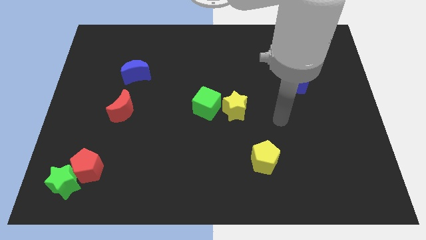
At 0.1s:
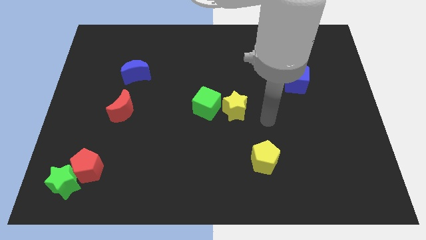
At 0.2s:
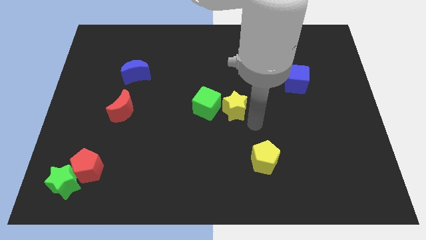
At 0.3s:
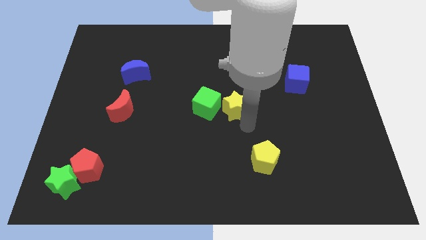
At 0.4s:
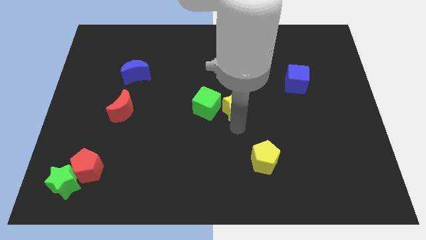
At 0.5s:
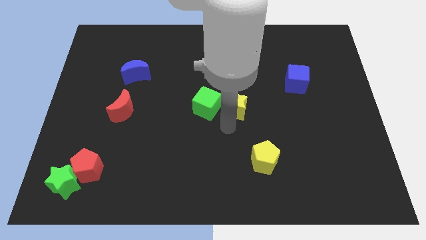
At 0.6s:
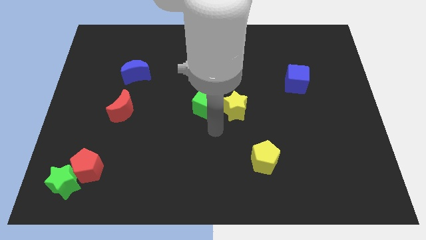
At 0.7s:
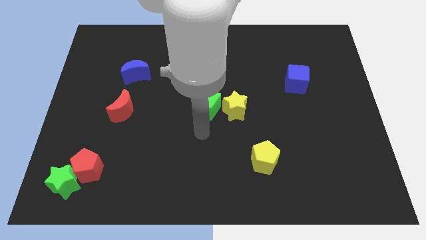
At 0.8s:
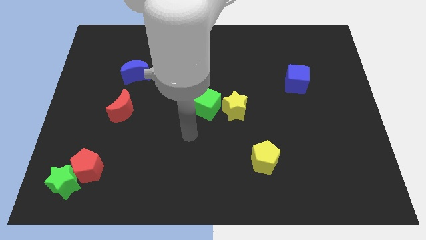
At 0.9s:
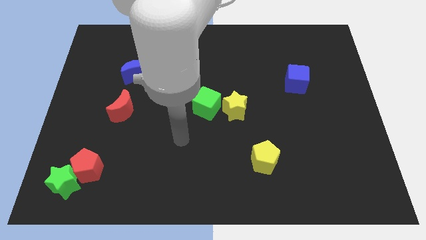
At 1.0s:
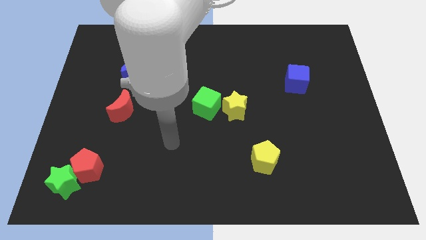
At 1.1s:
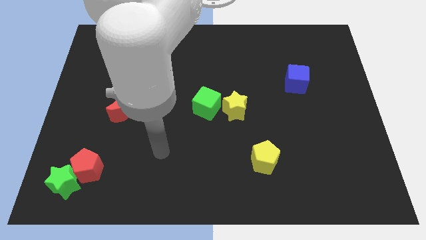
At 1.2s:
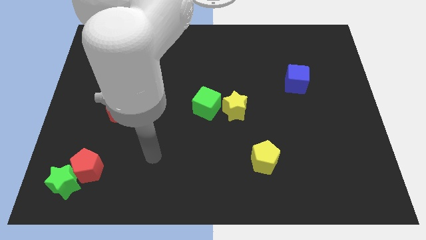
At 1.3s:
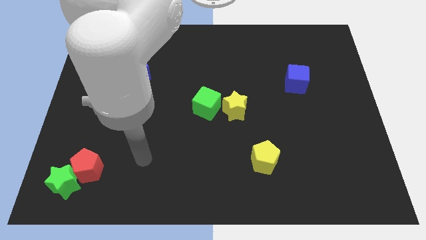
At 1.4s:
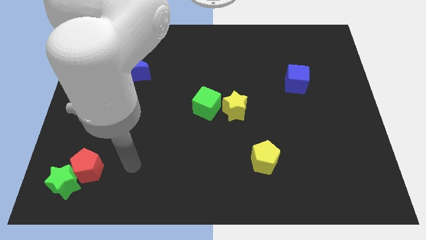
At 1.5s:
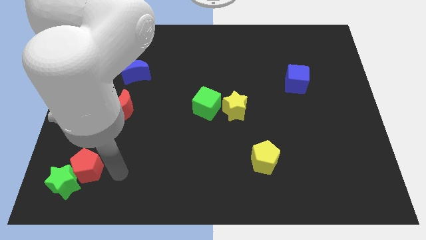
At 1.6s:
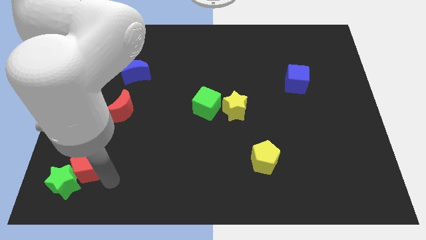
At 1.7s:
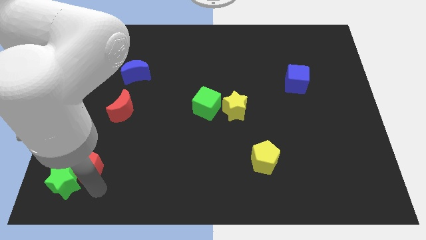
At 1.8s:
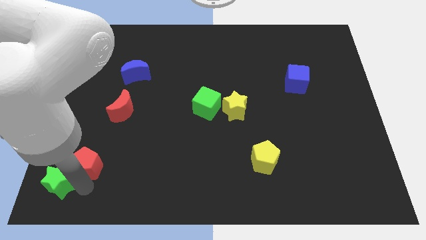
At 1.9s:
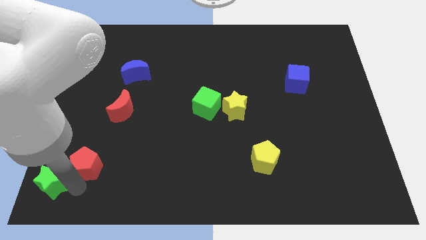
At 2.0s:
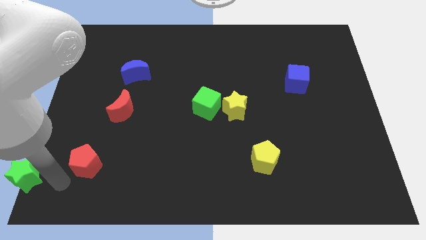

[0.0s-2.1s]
separate the red pentagon from the green star

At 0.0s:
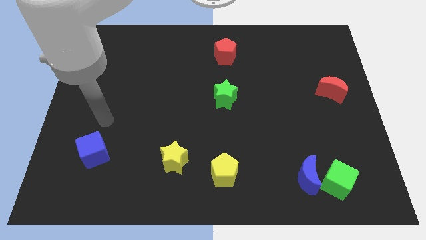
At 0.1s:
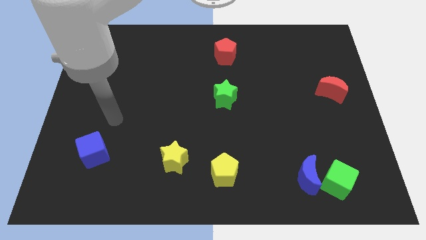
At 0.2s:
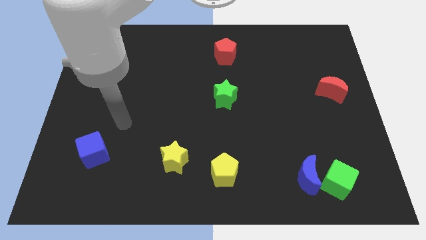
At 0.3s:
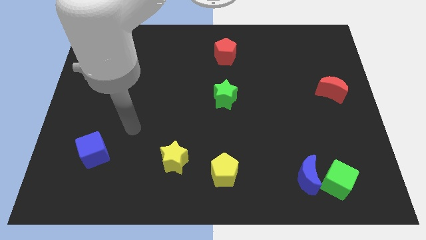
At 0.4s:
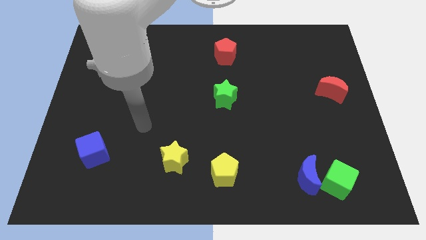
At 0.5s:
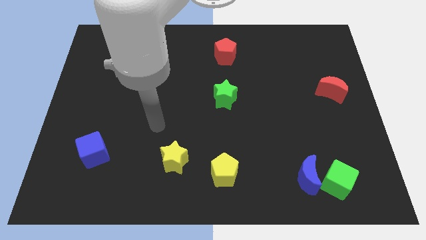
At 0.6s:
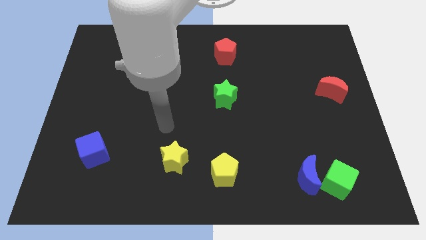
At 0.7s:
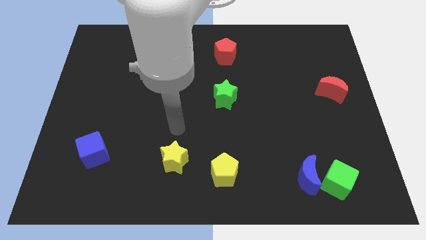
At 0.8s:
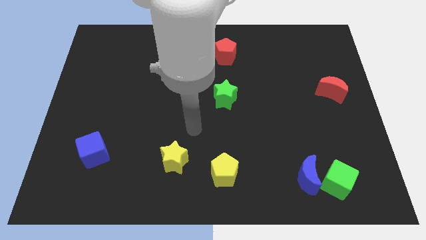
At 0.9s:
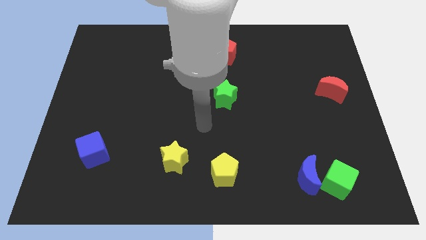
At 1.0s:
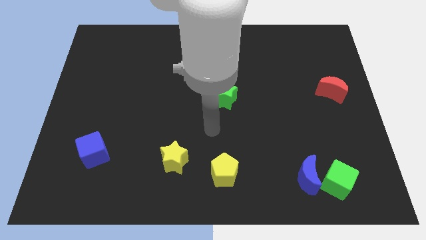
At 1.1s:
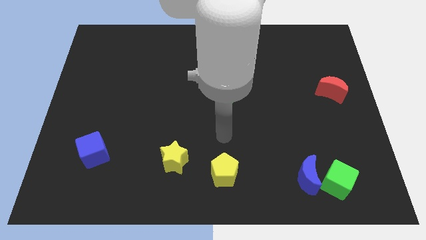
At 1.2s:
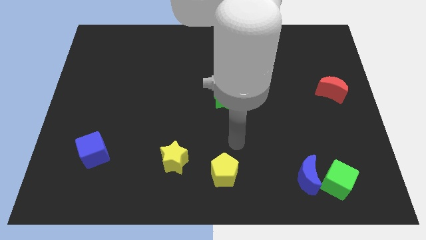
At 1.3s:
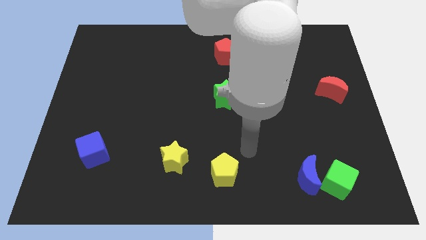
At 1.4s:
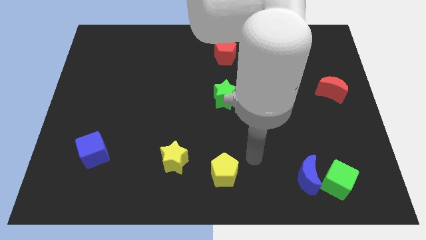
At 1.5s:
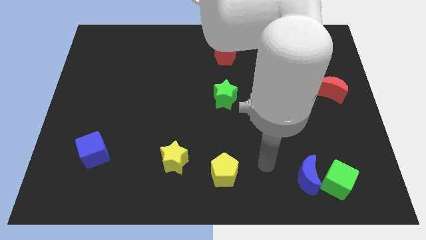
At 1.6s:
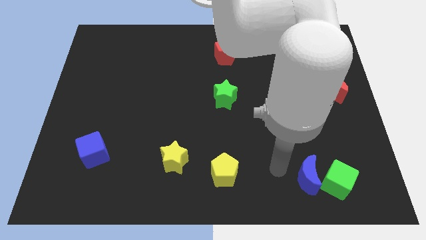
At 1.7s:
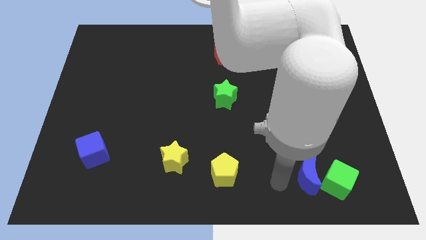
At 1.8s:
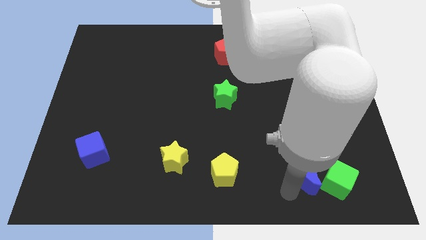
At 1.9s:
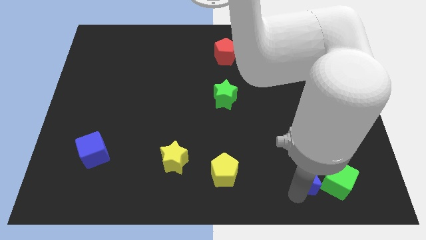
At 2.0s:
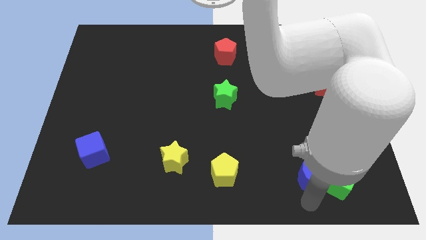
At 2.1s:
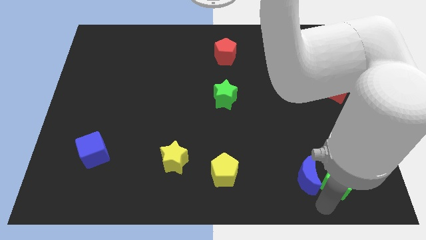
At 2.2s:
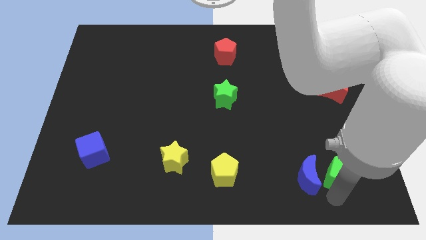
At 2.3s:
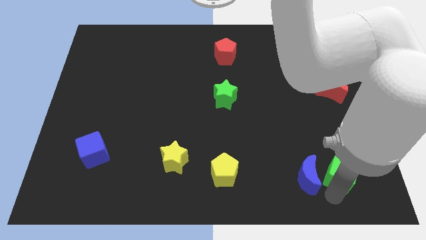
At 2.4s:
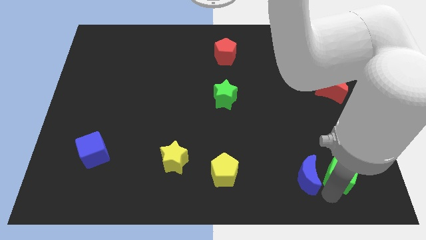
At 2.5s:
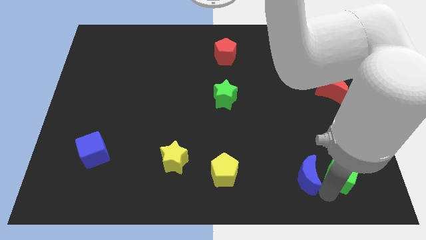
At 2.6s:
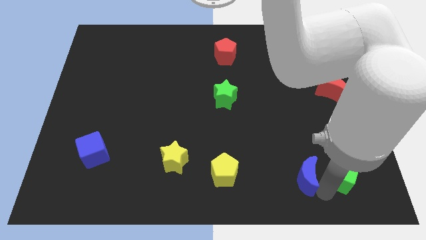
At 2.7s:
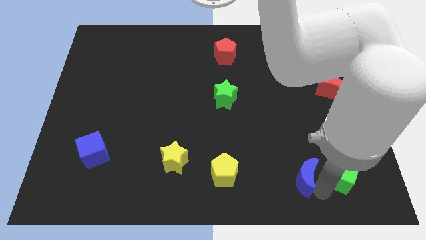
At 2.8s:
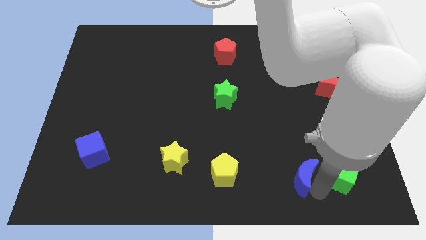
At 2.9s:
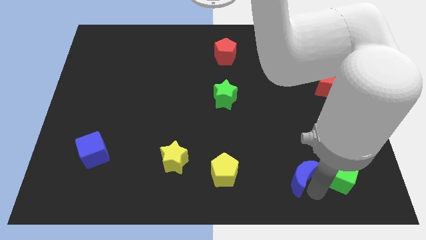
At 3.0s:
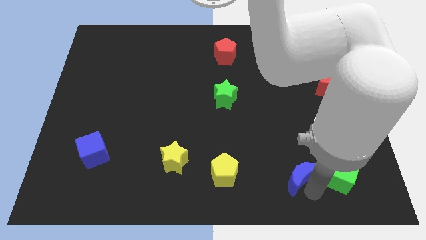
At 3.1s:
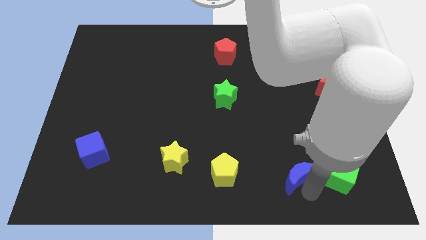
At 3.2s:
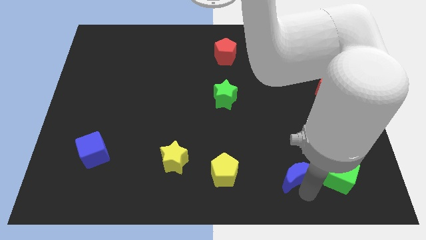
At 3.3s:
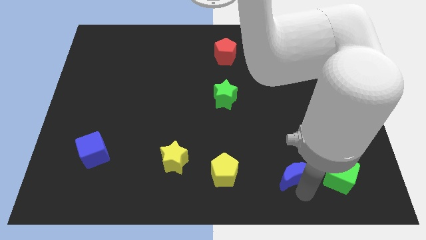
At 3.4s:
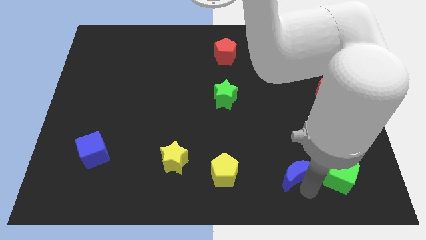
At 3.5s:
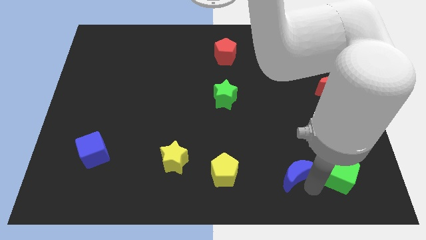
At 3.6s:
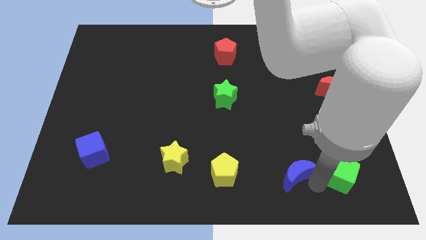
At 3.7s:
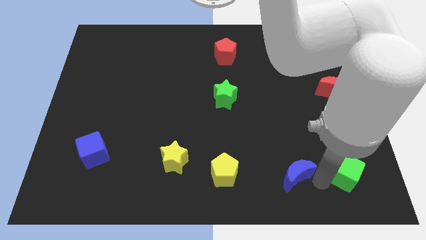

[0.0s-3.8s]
pull the blue moon apart from the green cube

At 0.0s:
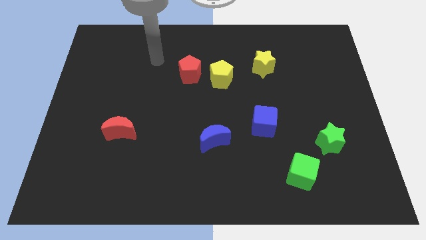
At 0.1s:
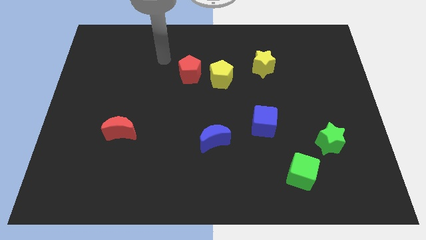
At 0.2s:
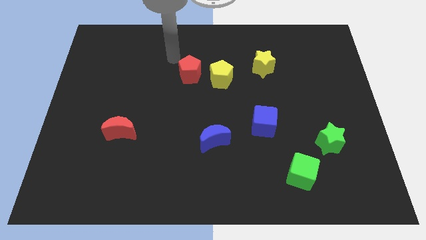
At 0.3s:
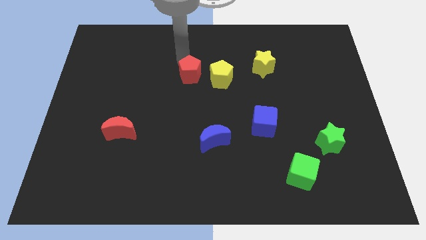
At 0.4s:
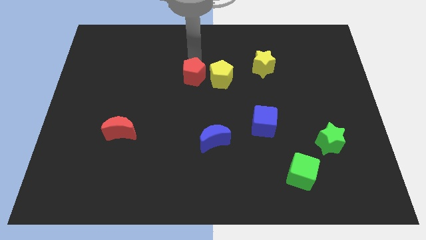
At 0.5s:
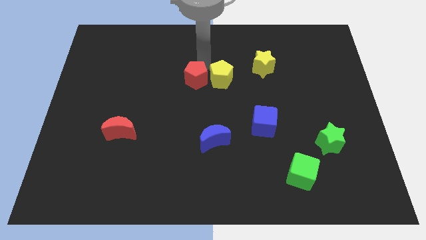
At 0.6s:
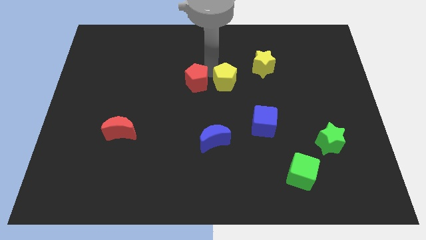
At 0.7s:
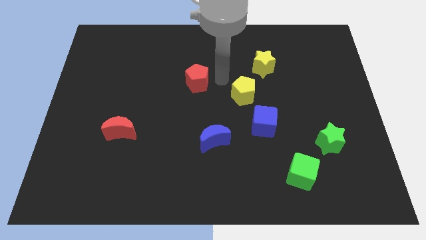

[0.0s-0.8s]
separate the red pentagon from the yellow pentagon

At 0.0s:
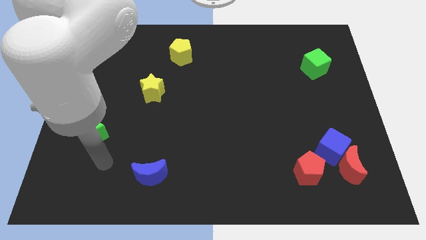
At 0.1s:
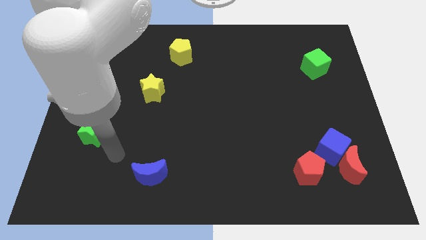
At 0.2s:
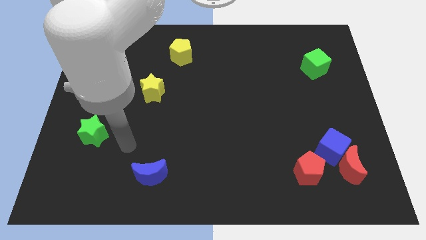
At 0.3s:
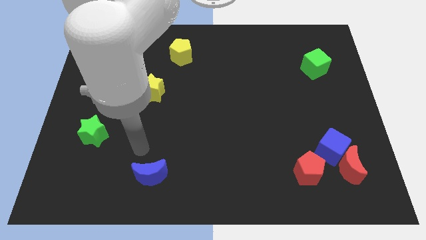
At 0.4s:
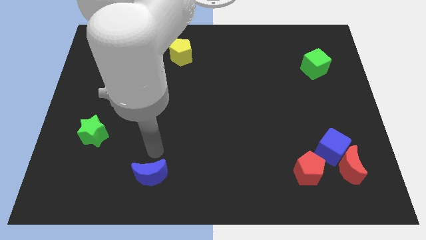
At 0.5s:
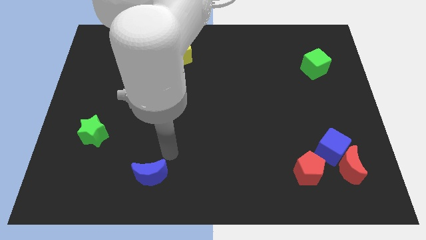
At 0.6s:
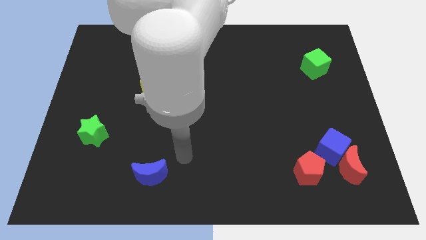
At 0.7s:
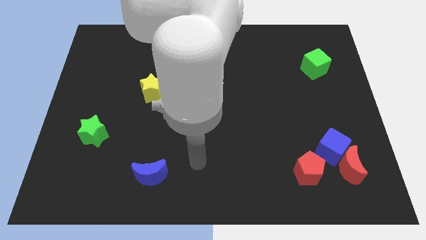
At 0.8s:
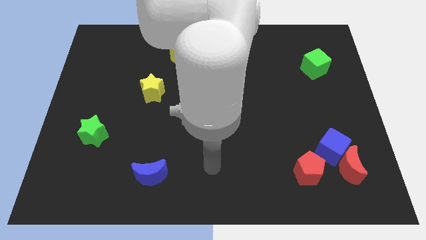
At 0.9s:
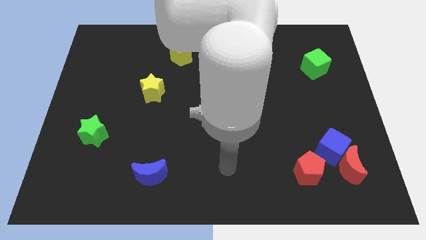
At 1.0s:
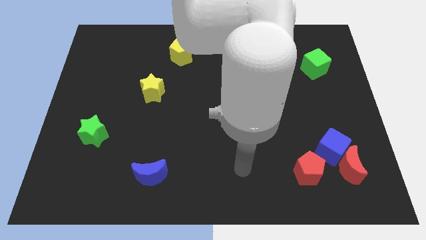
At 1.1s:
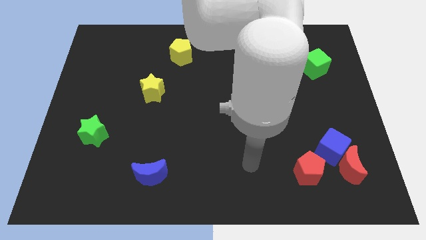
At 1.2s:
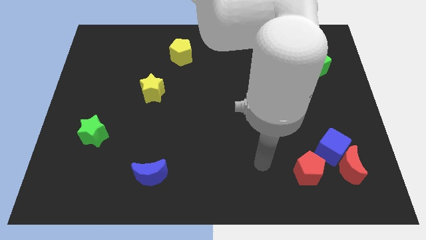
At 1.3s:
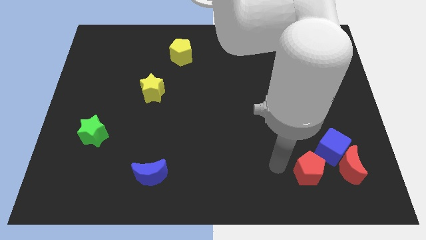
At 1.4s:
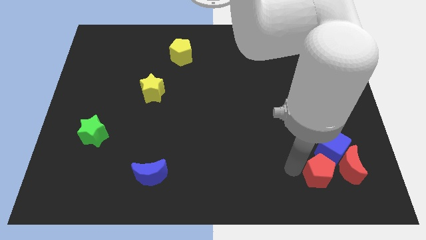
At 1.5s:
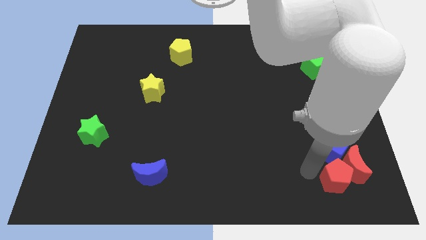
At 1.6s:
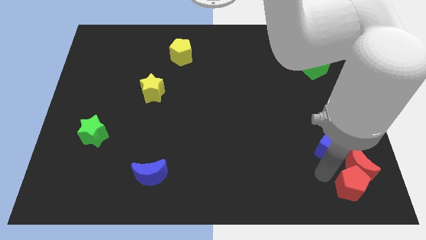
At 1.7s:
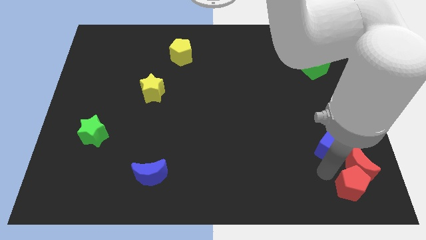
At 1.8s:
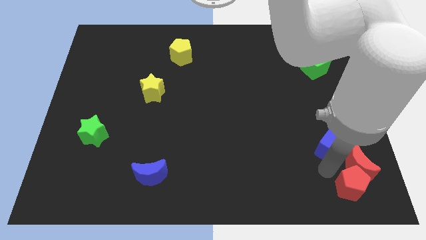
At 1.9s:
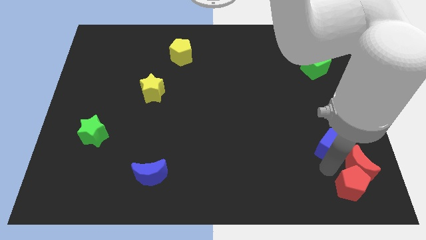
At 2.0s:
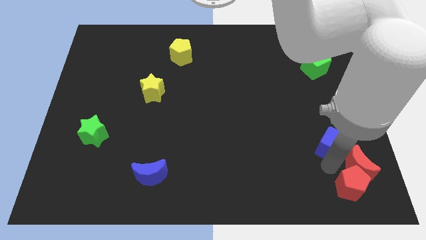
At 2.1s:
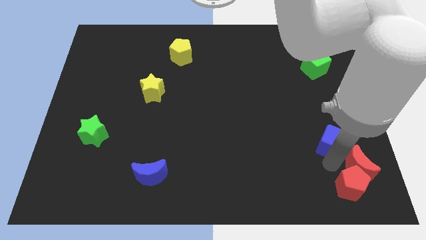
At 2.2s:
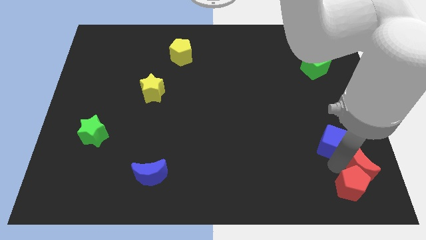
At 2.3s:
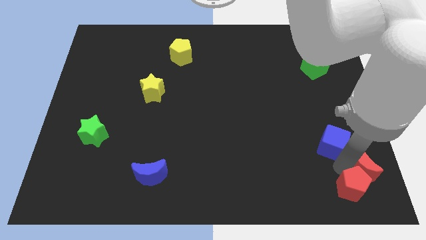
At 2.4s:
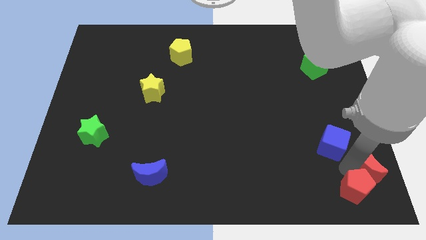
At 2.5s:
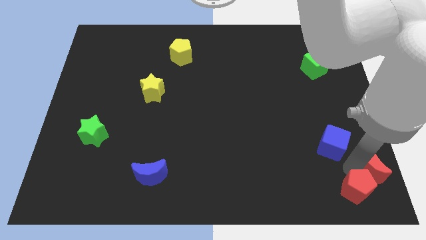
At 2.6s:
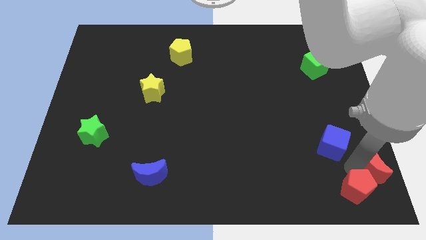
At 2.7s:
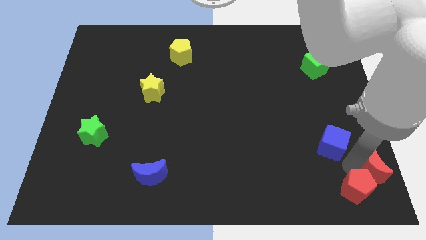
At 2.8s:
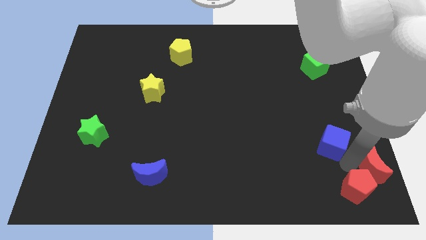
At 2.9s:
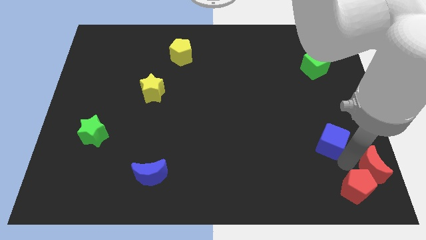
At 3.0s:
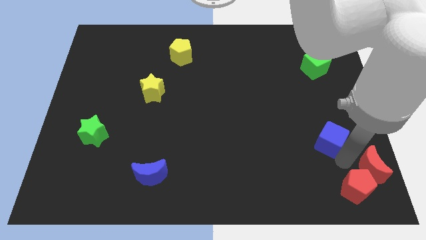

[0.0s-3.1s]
separate the blue cube from the red moon and red pentagon
